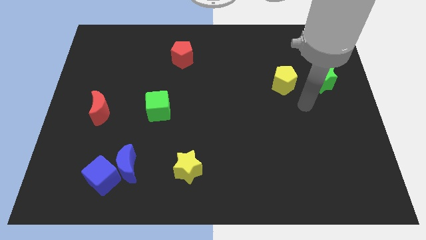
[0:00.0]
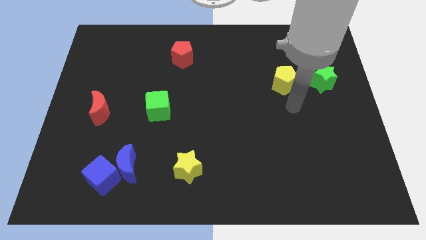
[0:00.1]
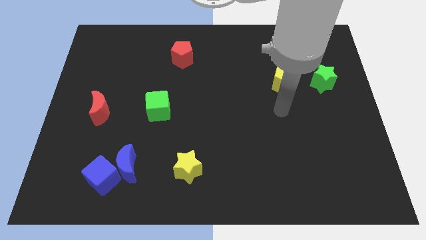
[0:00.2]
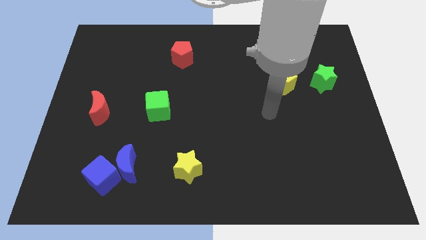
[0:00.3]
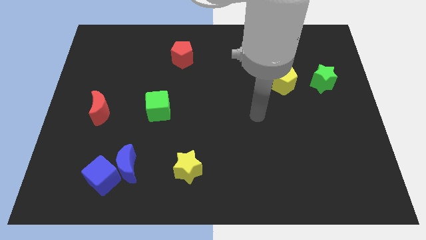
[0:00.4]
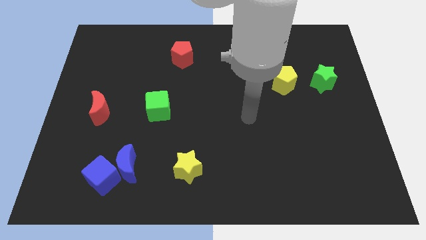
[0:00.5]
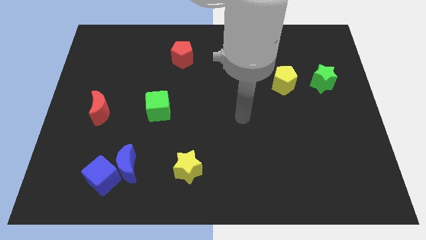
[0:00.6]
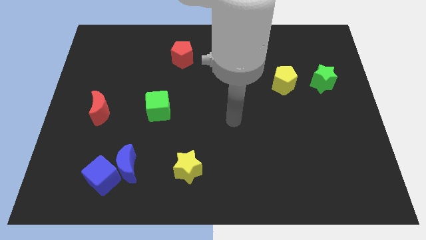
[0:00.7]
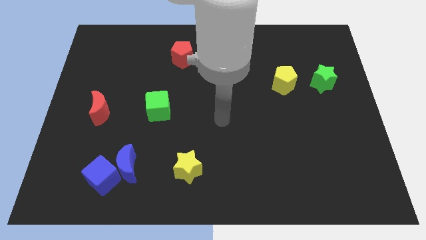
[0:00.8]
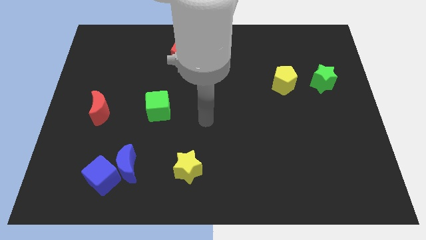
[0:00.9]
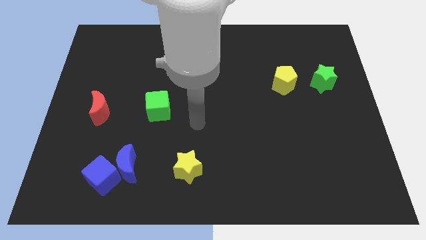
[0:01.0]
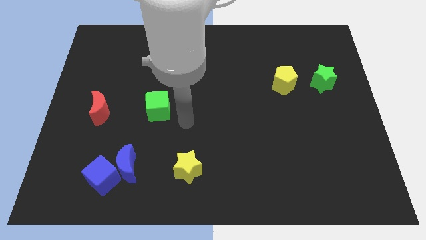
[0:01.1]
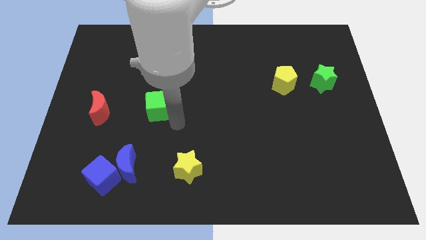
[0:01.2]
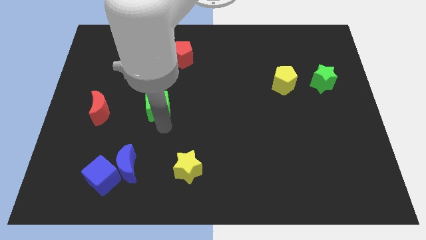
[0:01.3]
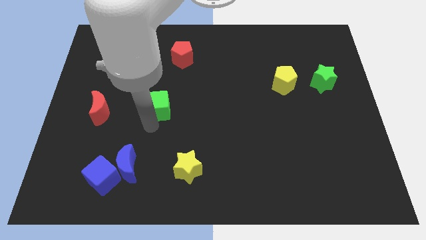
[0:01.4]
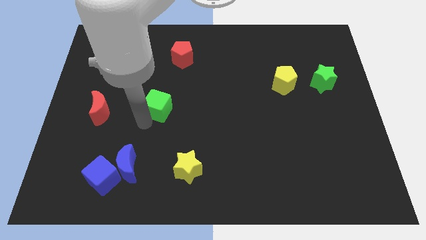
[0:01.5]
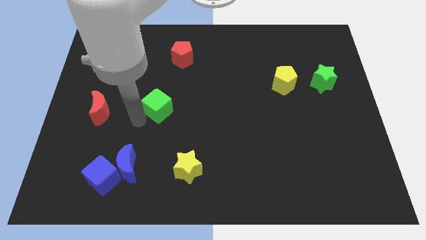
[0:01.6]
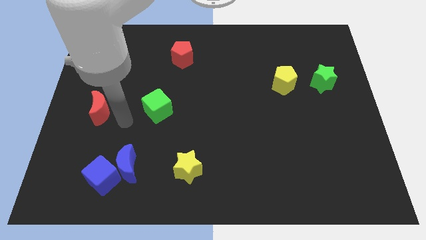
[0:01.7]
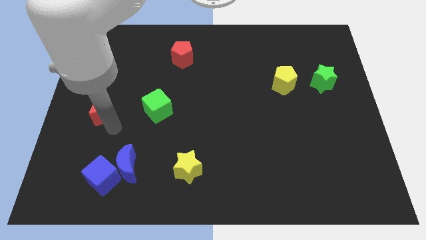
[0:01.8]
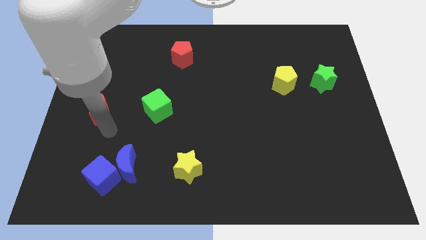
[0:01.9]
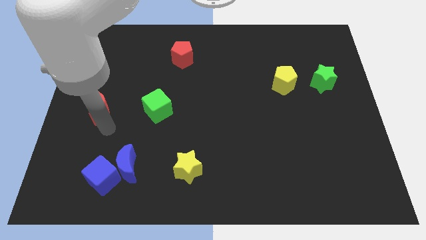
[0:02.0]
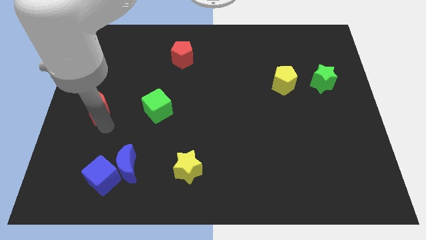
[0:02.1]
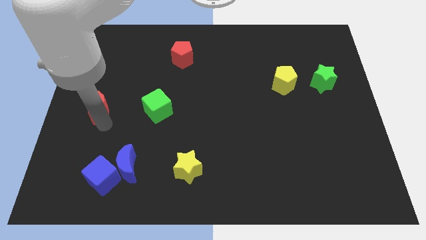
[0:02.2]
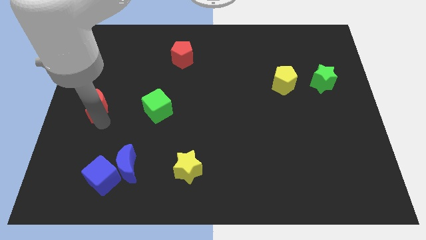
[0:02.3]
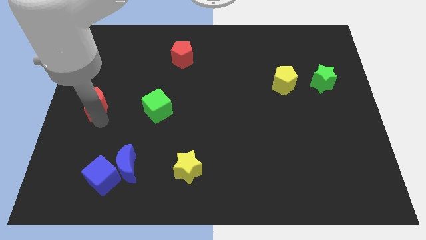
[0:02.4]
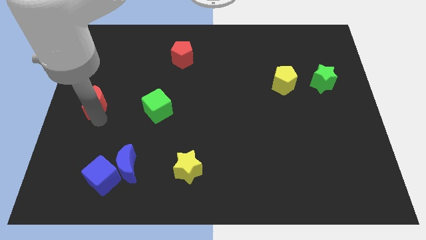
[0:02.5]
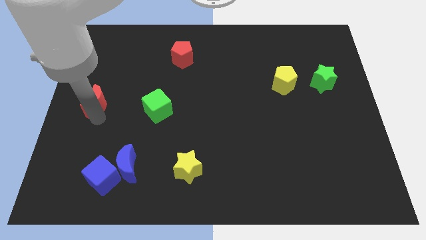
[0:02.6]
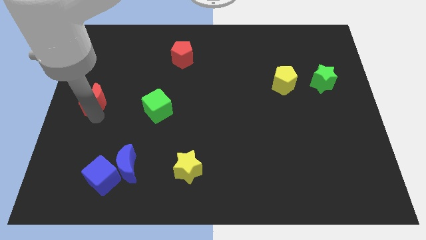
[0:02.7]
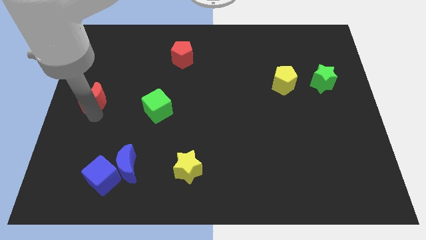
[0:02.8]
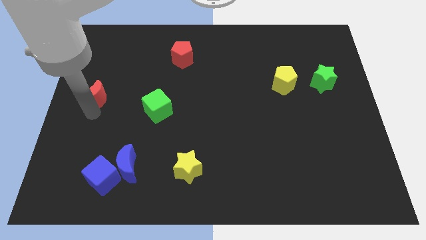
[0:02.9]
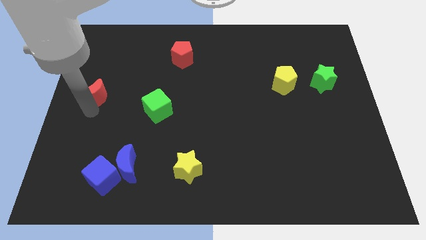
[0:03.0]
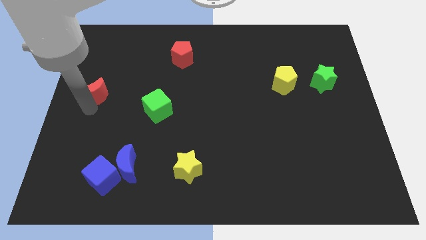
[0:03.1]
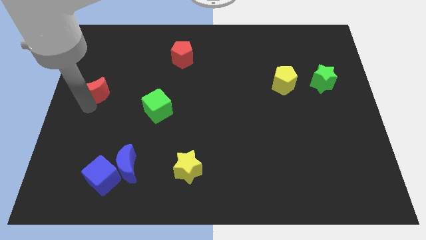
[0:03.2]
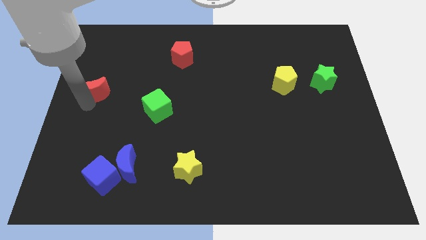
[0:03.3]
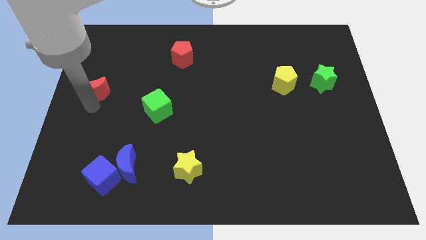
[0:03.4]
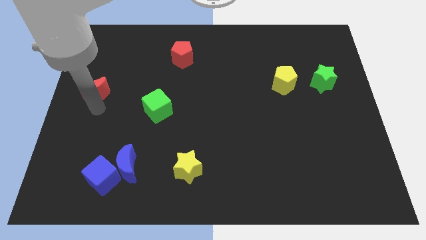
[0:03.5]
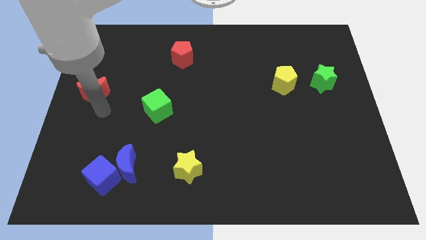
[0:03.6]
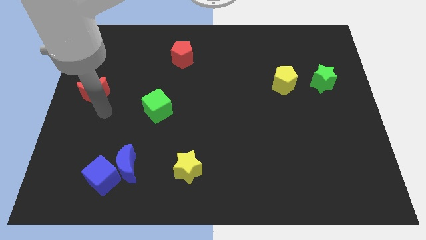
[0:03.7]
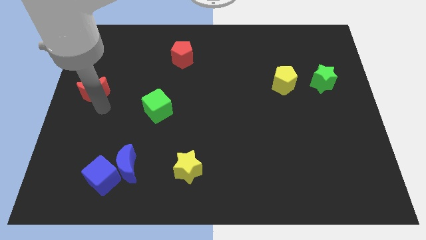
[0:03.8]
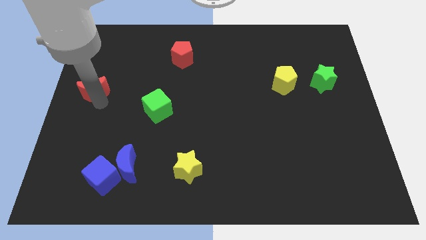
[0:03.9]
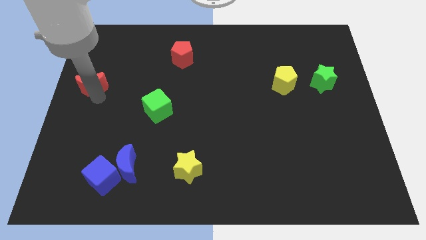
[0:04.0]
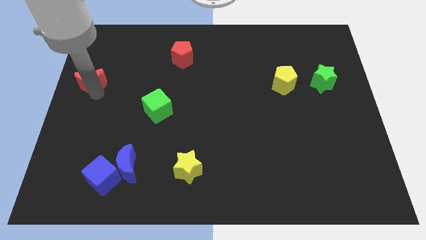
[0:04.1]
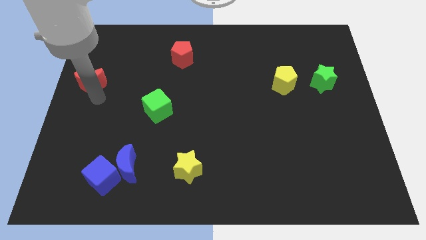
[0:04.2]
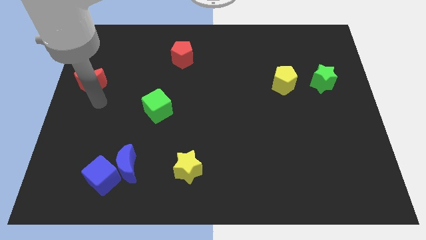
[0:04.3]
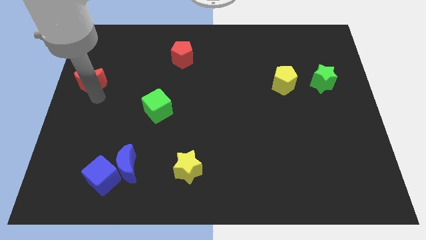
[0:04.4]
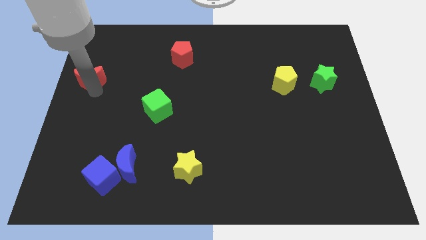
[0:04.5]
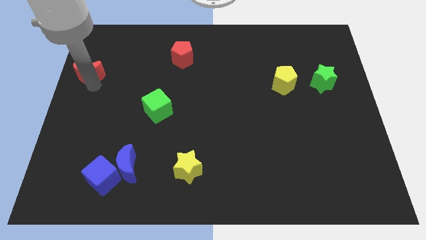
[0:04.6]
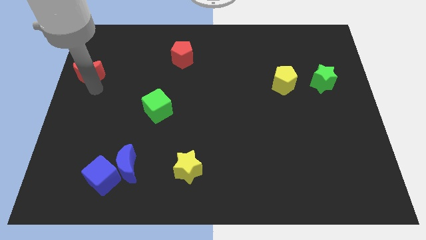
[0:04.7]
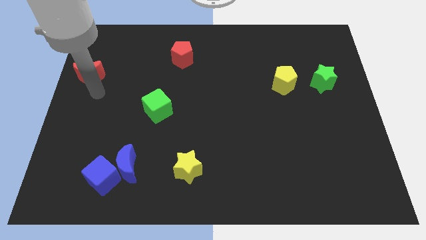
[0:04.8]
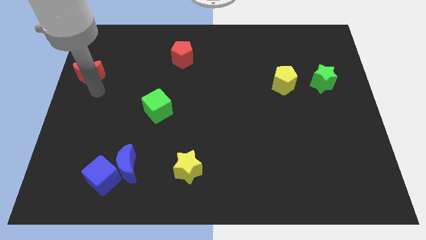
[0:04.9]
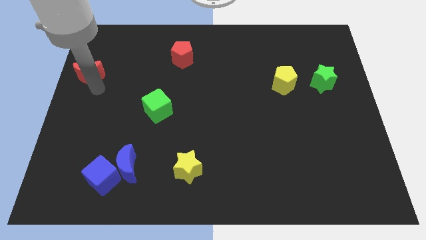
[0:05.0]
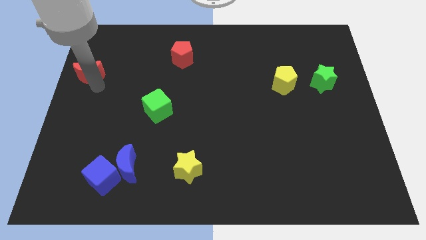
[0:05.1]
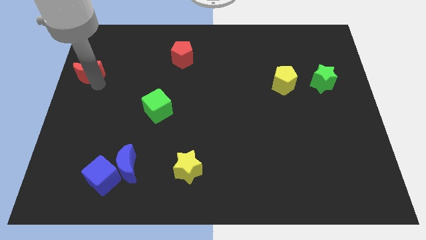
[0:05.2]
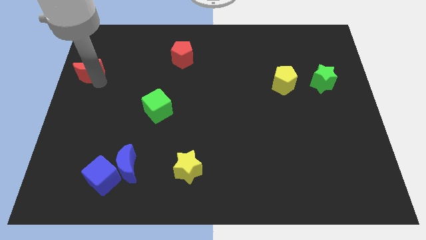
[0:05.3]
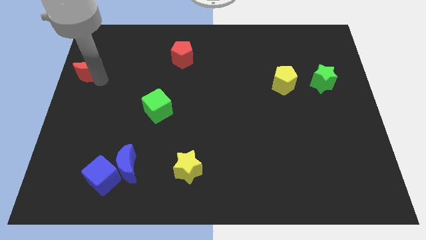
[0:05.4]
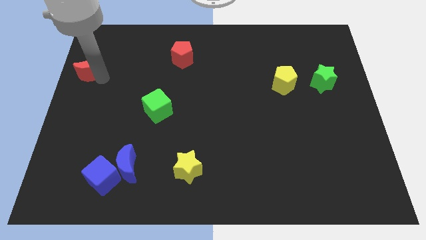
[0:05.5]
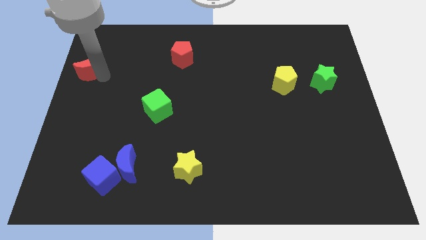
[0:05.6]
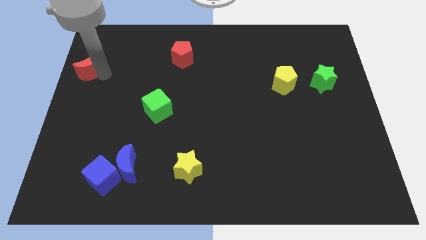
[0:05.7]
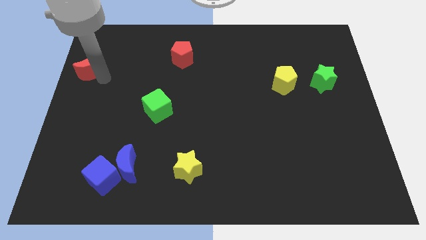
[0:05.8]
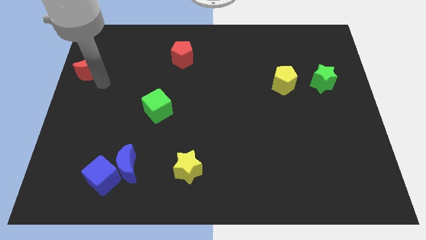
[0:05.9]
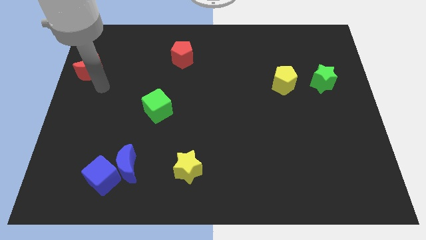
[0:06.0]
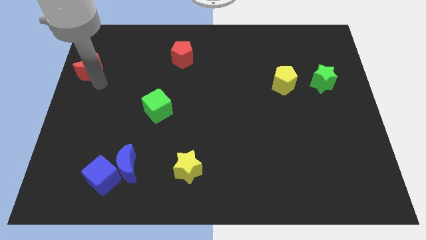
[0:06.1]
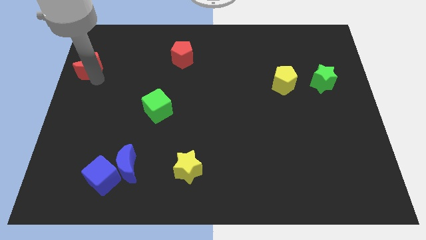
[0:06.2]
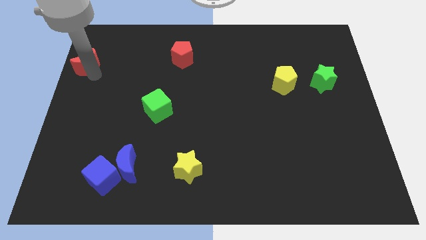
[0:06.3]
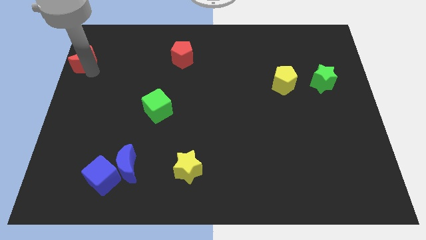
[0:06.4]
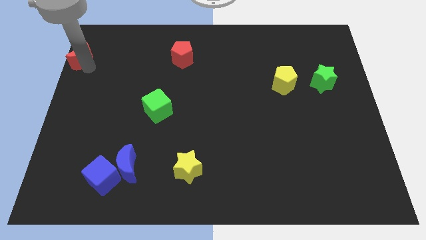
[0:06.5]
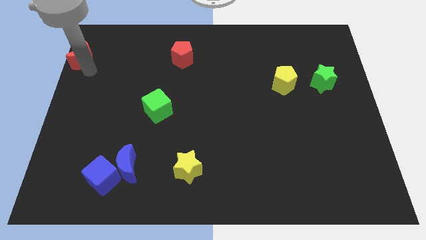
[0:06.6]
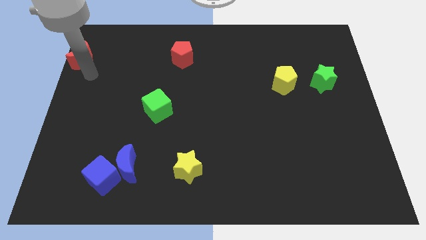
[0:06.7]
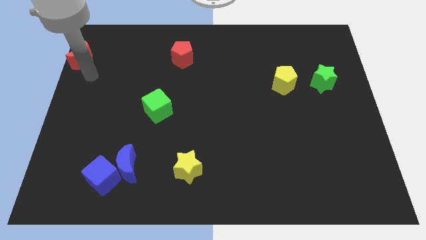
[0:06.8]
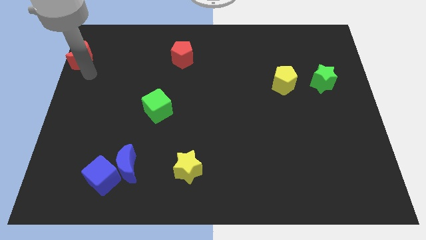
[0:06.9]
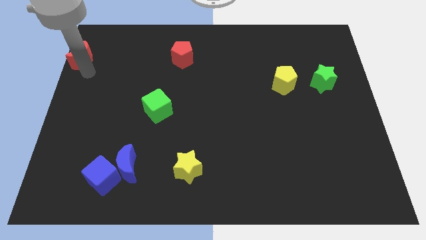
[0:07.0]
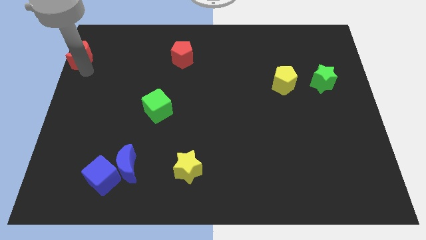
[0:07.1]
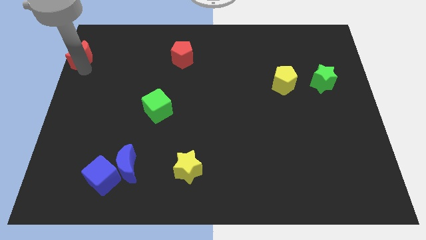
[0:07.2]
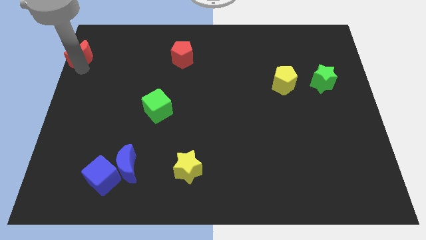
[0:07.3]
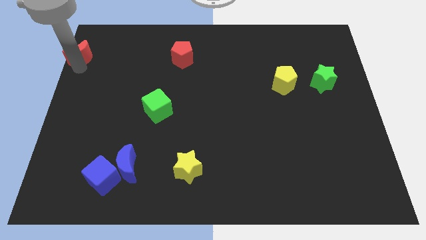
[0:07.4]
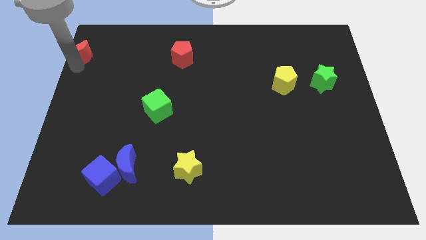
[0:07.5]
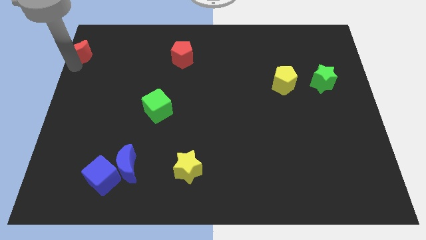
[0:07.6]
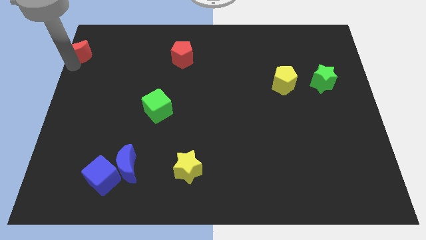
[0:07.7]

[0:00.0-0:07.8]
push the red moon to the upper left corner
